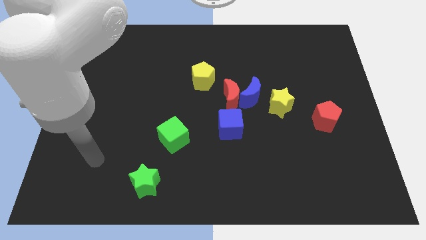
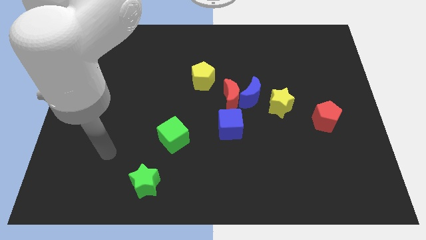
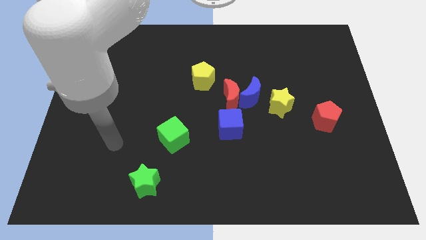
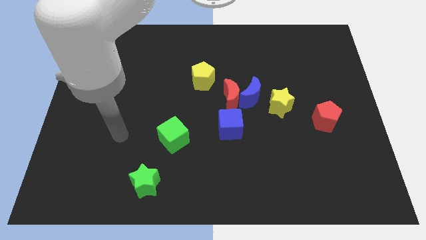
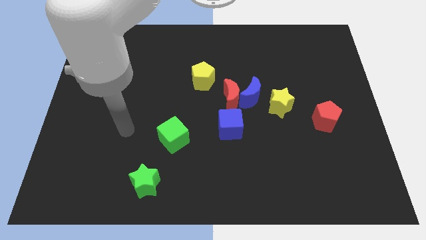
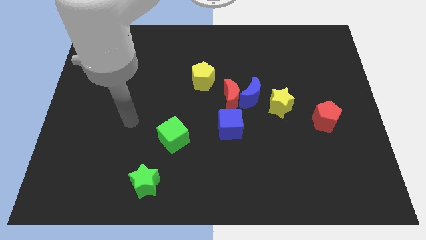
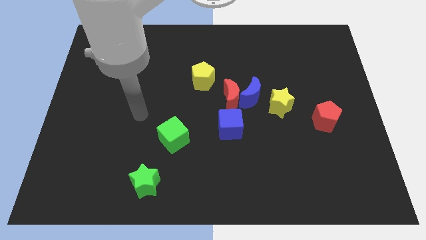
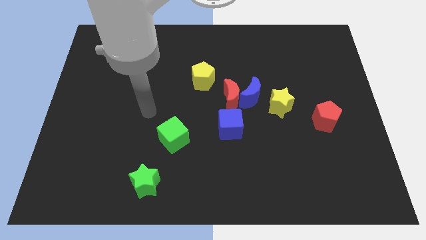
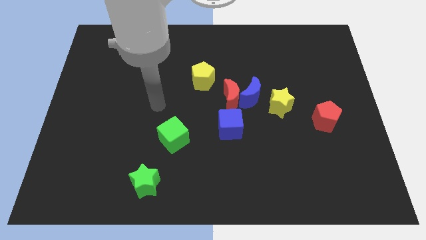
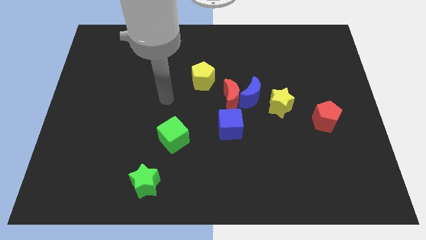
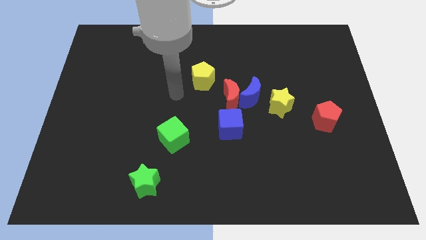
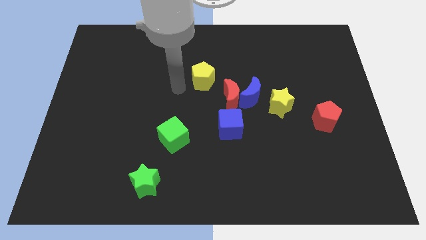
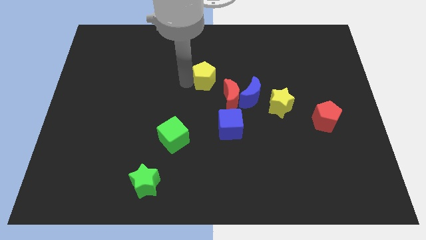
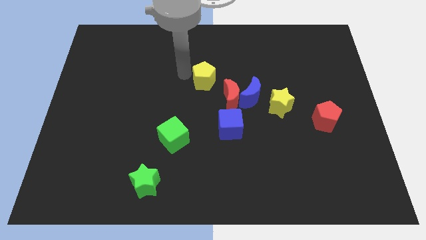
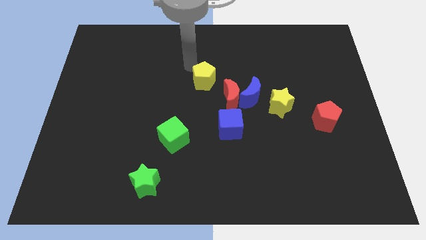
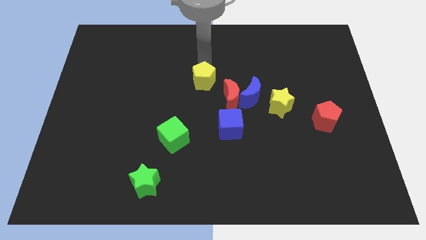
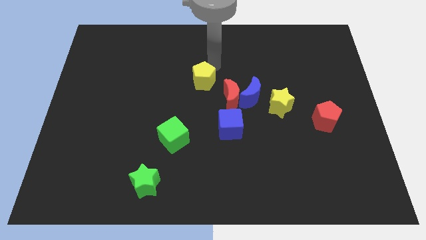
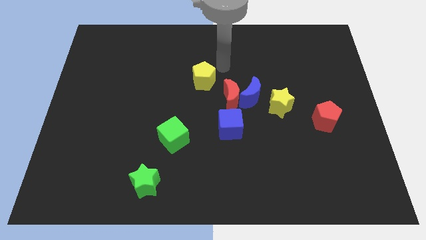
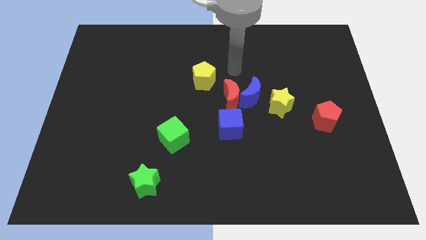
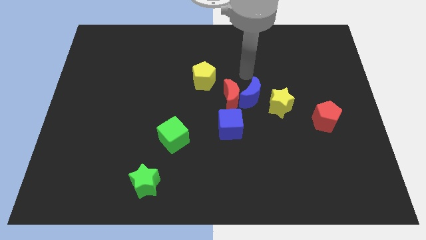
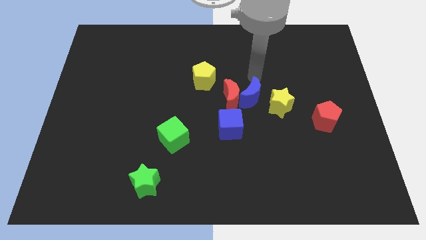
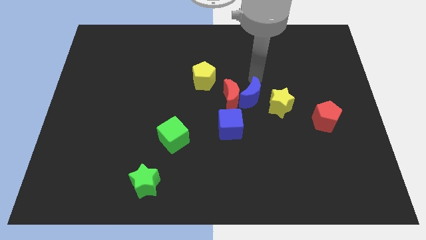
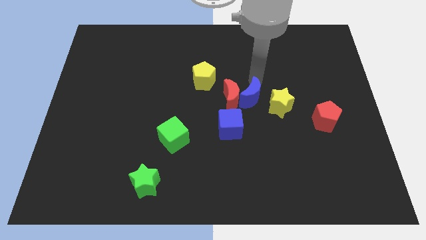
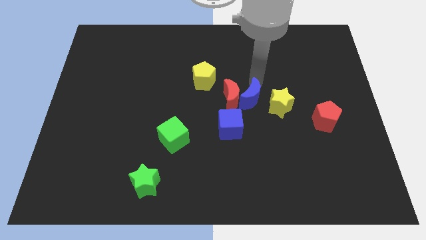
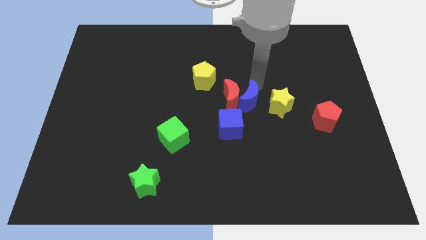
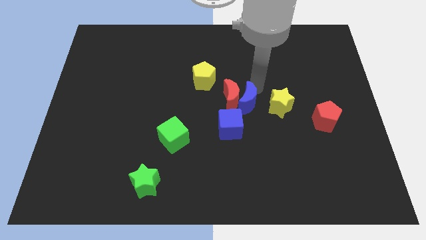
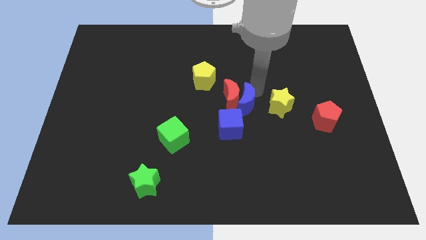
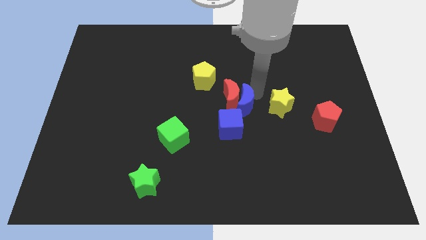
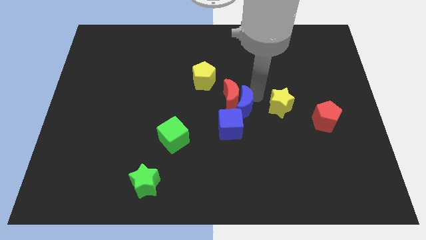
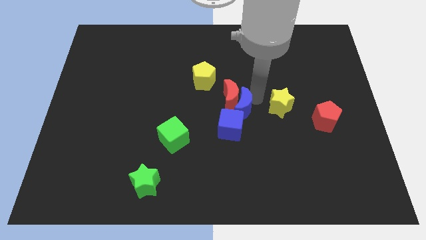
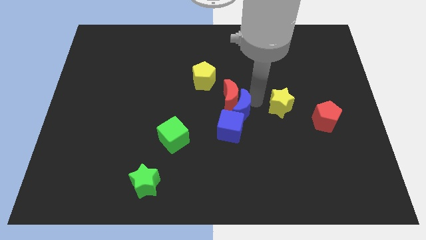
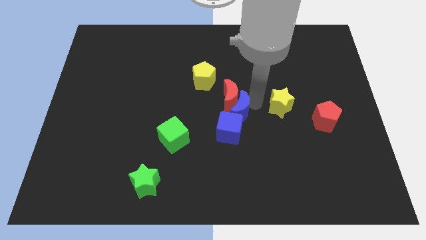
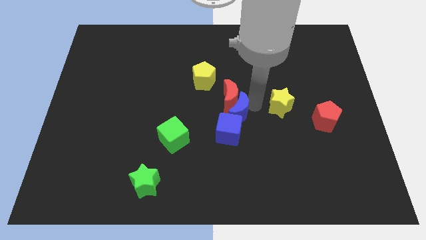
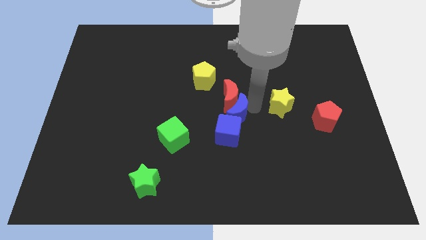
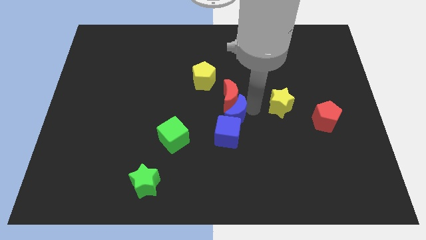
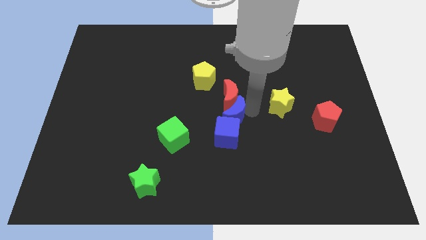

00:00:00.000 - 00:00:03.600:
slide the blue moon downwards and then to the left a little bit

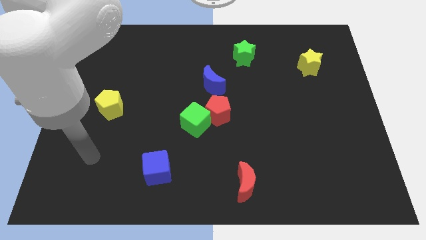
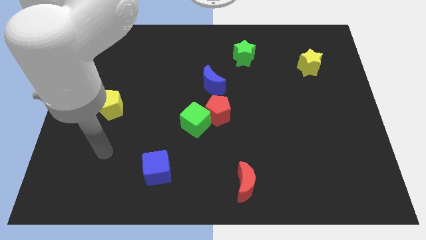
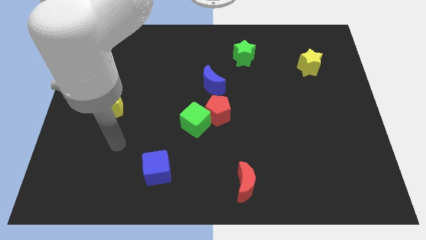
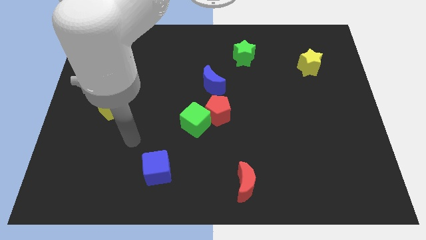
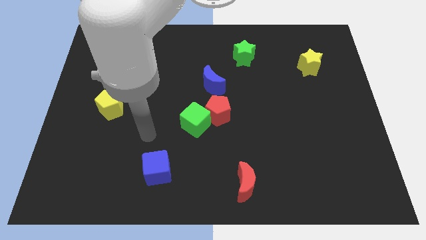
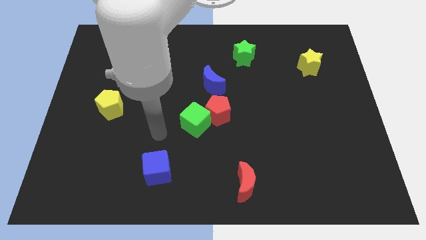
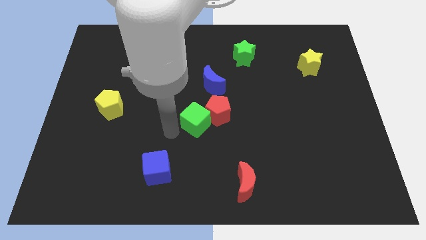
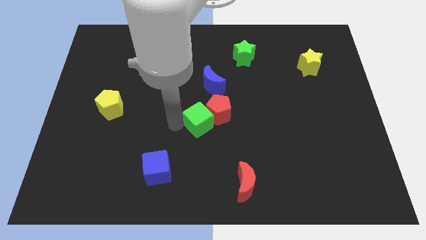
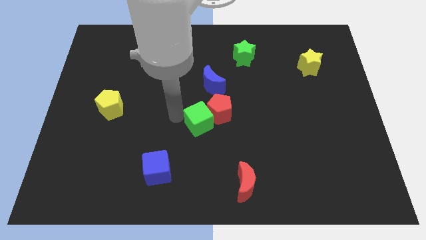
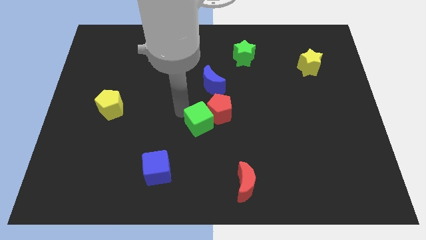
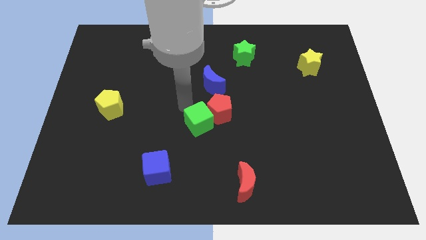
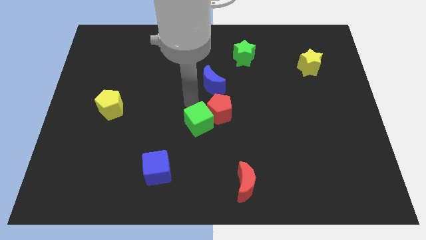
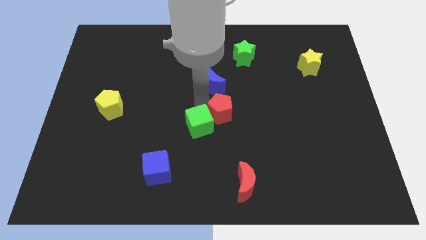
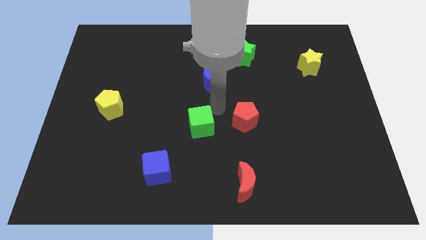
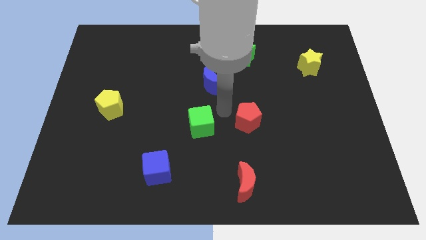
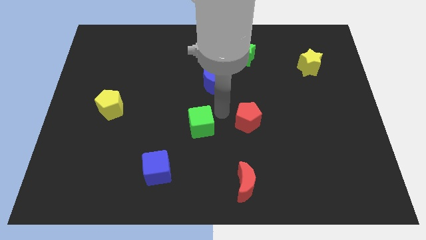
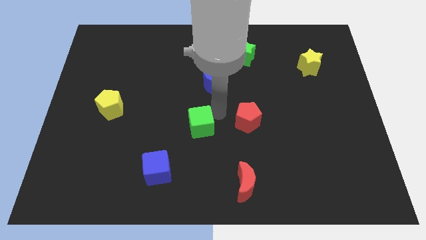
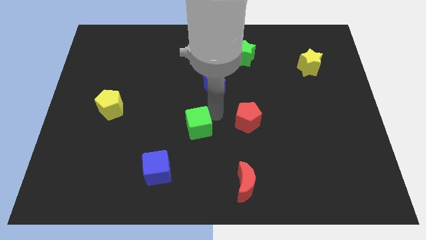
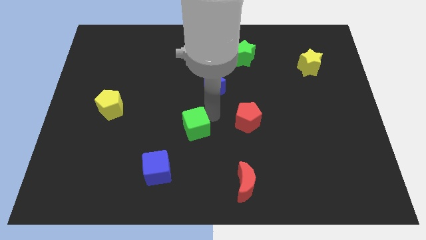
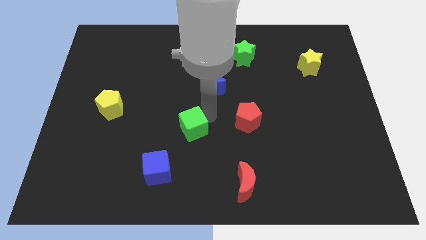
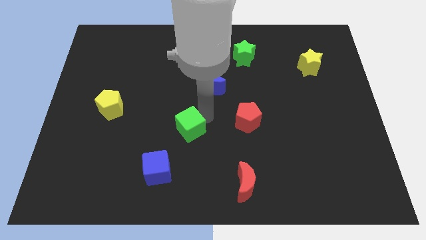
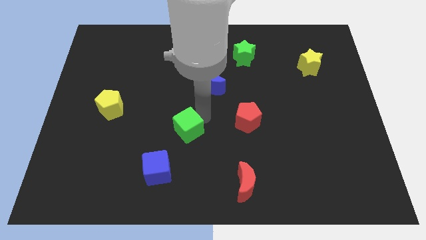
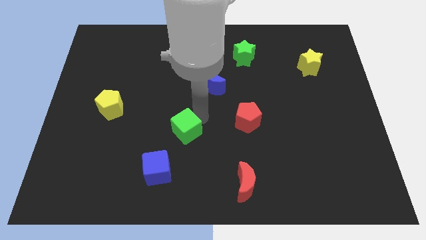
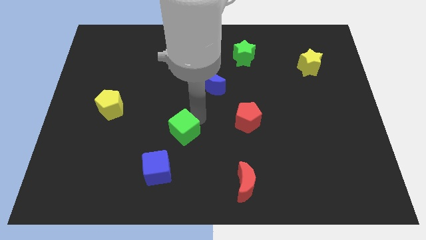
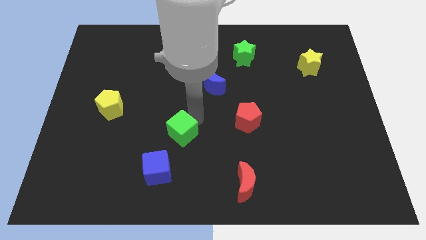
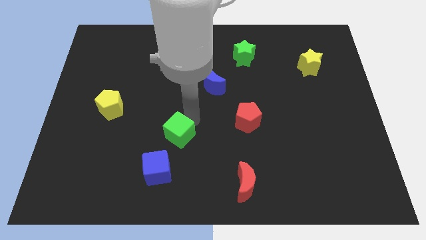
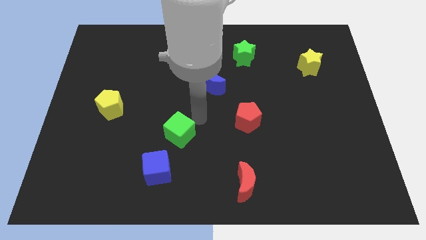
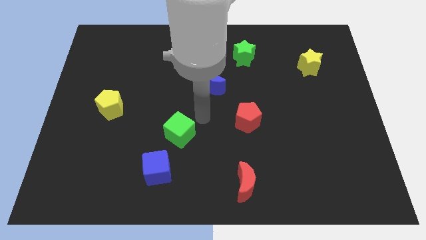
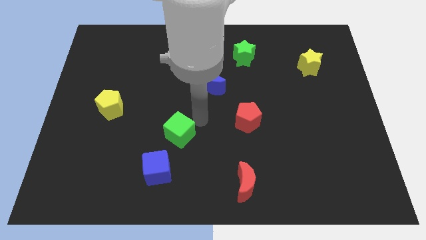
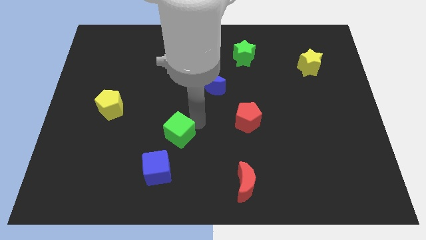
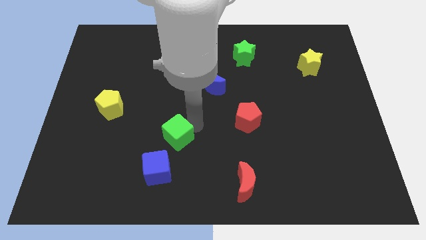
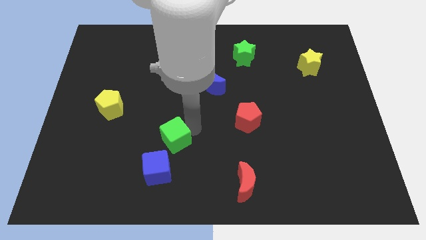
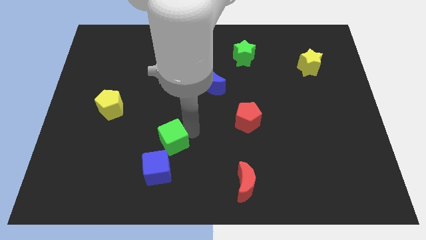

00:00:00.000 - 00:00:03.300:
push the green cube a bit downwards and to the left

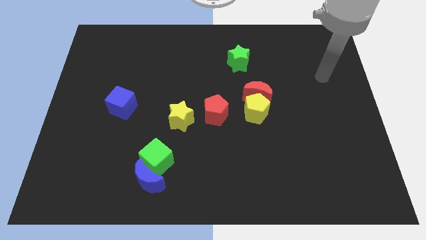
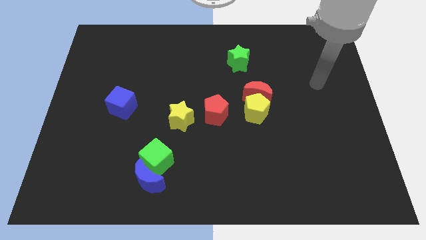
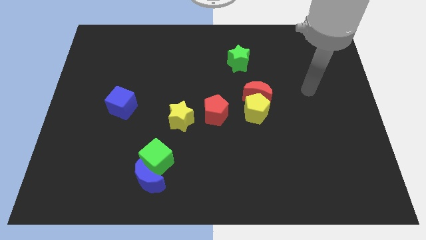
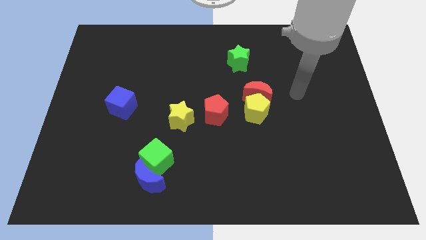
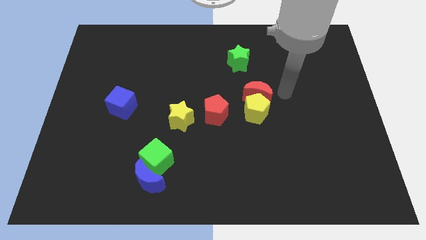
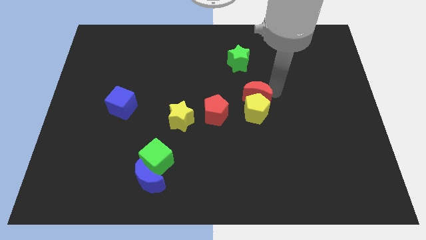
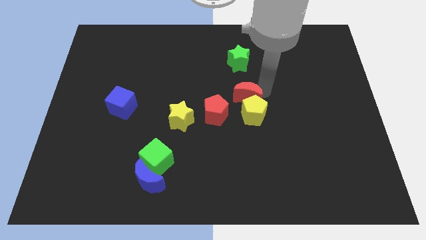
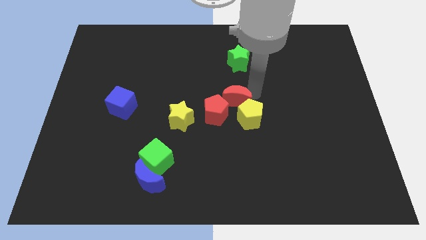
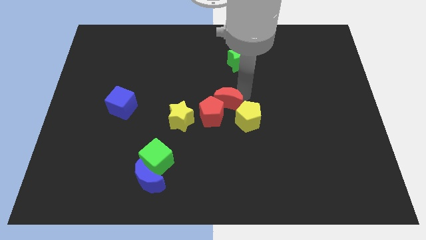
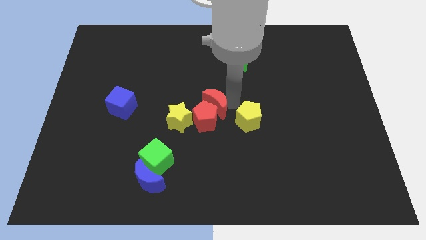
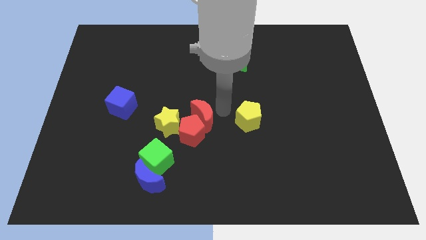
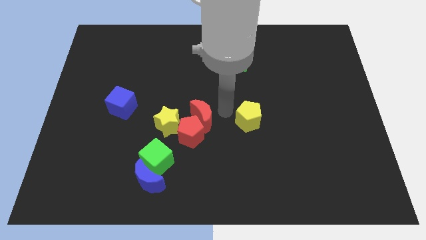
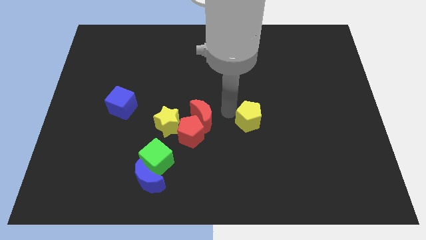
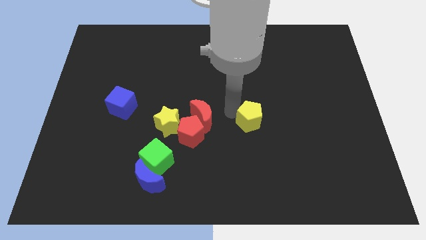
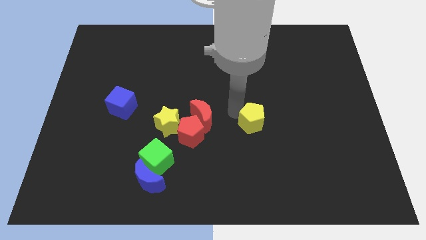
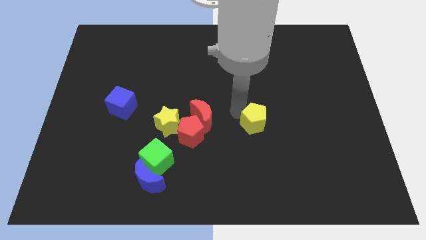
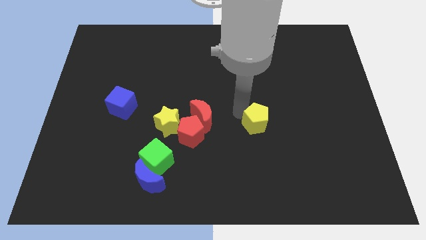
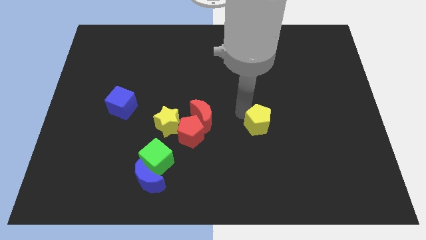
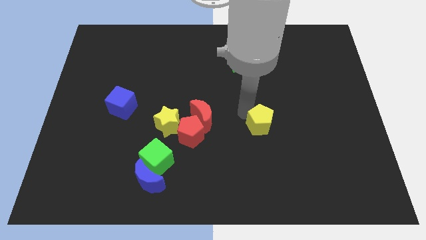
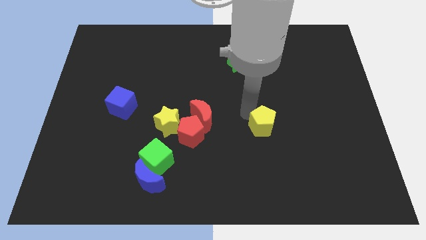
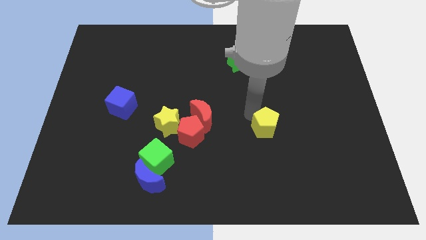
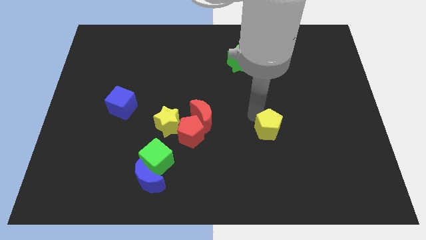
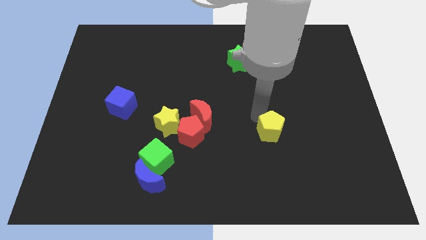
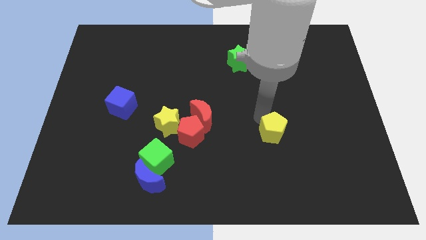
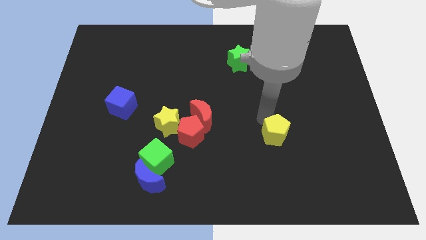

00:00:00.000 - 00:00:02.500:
slightly slide the yellow pentagon down and then to the right
